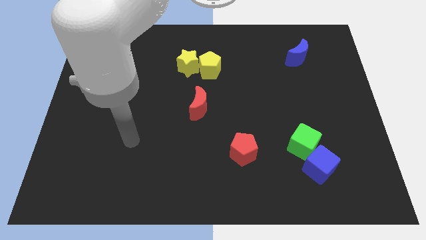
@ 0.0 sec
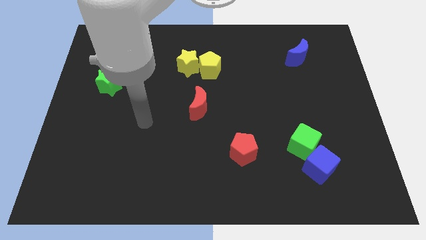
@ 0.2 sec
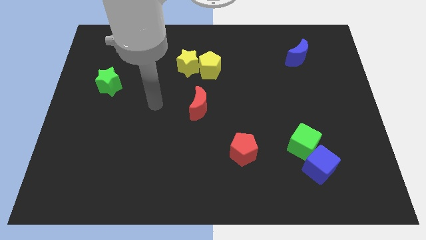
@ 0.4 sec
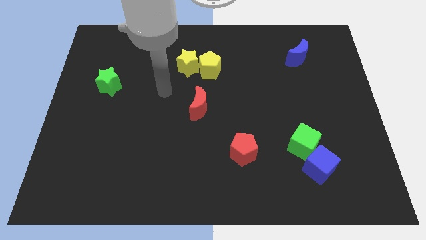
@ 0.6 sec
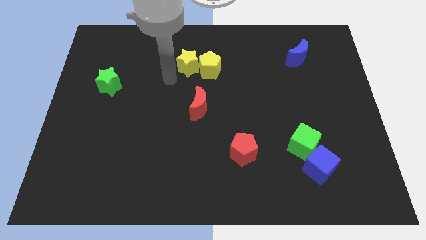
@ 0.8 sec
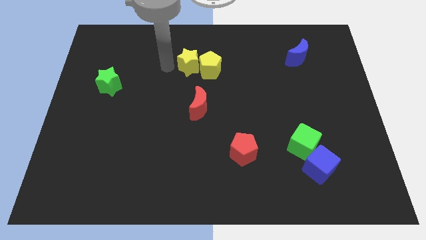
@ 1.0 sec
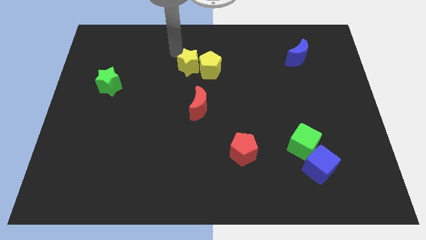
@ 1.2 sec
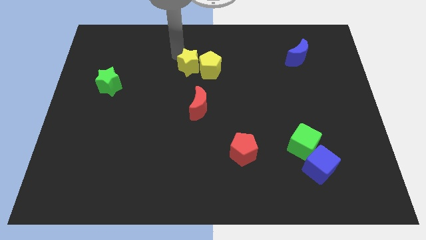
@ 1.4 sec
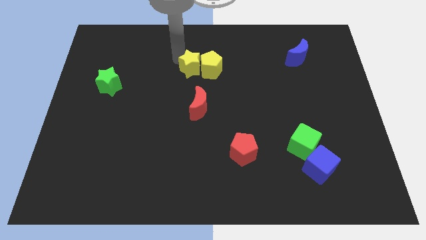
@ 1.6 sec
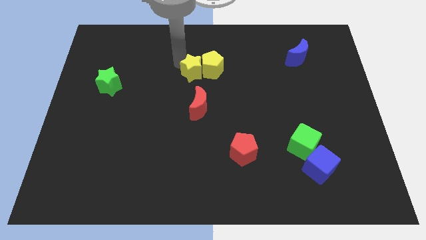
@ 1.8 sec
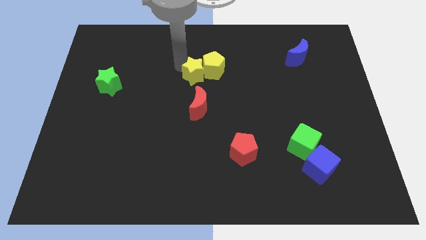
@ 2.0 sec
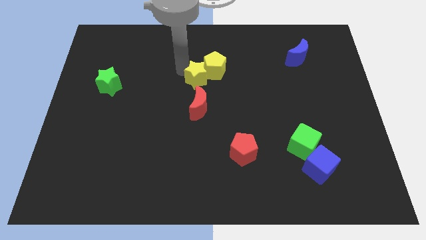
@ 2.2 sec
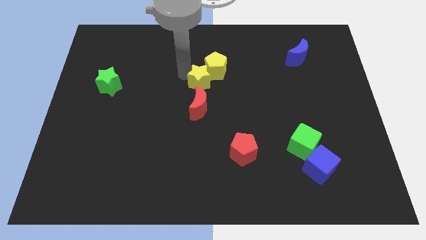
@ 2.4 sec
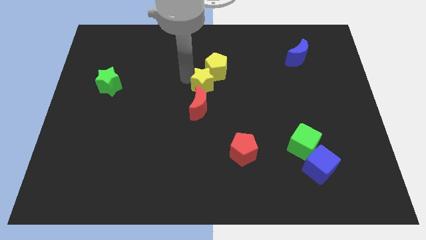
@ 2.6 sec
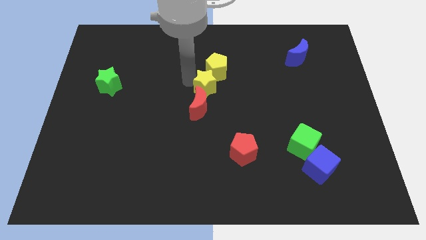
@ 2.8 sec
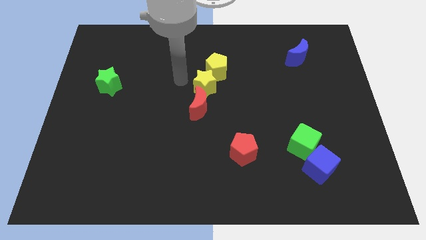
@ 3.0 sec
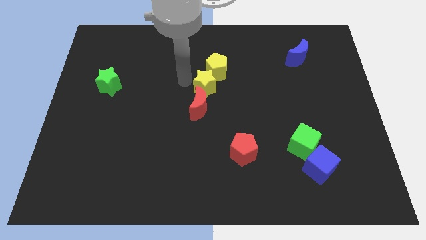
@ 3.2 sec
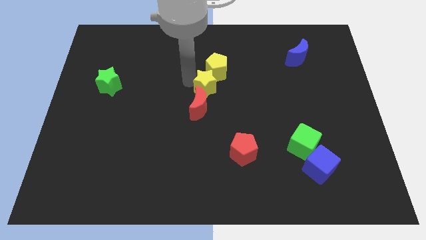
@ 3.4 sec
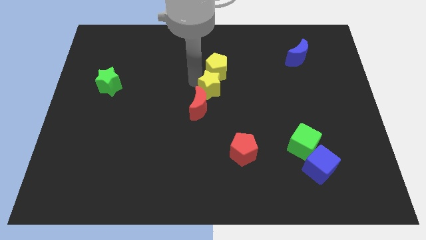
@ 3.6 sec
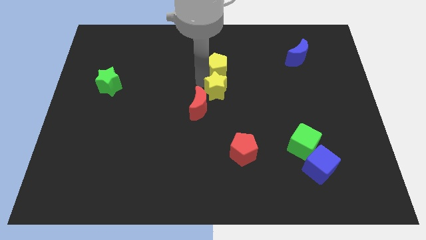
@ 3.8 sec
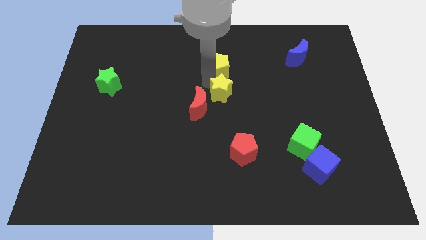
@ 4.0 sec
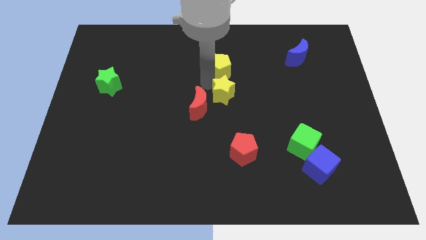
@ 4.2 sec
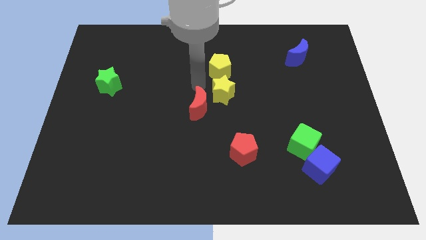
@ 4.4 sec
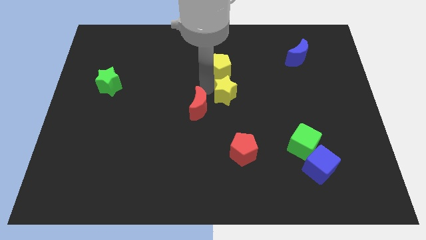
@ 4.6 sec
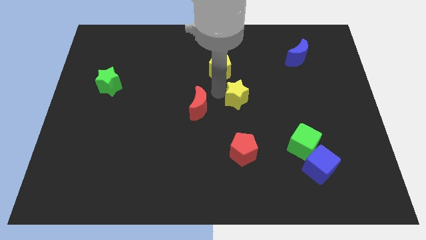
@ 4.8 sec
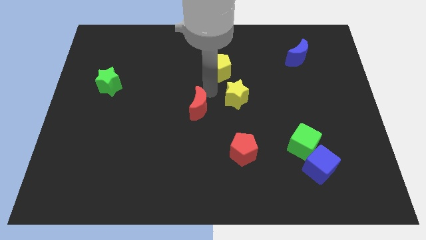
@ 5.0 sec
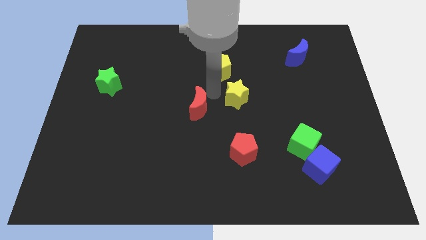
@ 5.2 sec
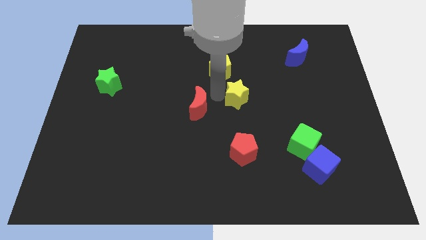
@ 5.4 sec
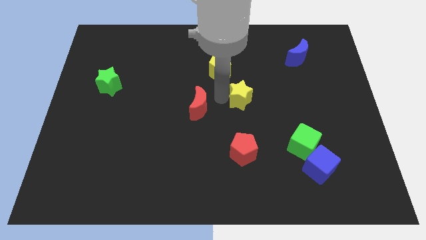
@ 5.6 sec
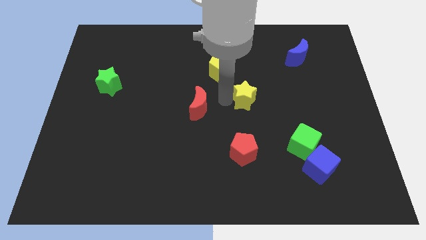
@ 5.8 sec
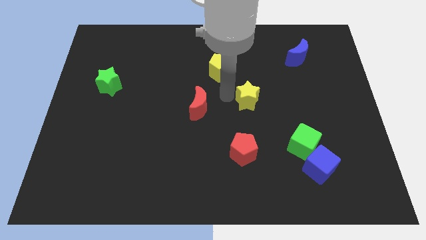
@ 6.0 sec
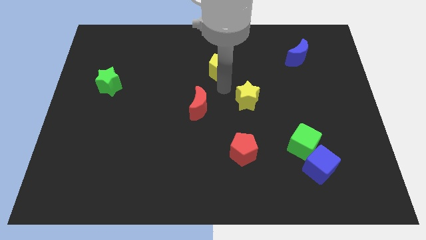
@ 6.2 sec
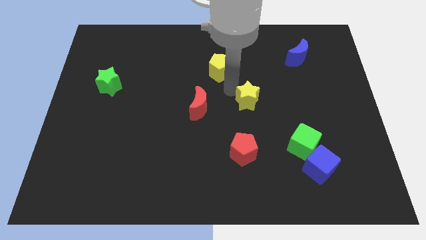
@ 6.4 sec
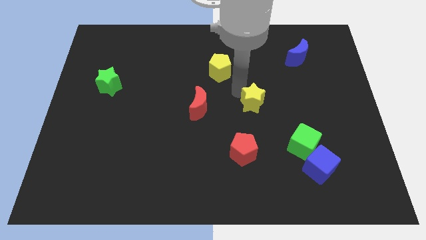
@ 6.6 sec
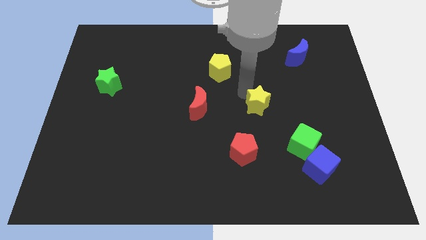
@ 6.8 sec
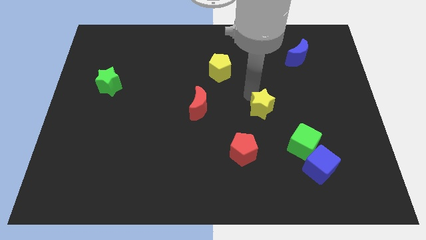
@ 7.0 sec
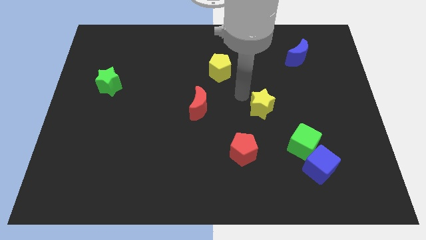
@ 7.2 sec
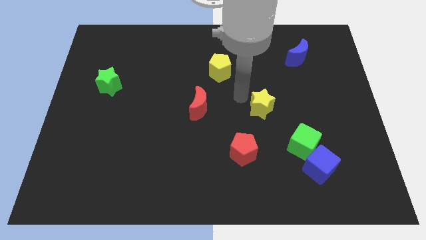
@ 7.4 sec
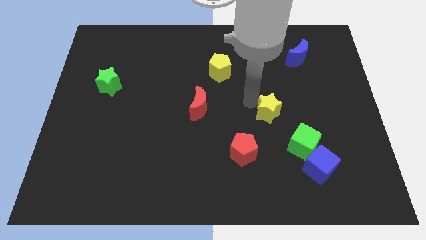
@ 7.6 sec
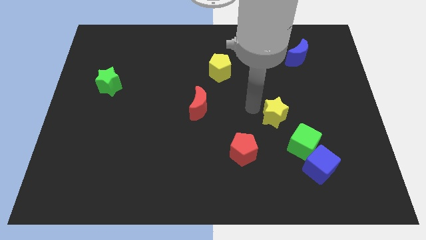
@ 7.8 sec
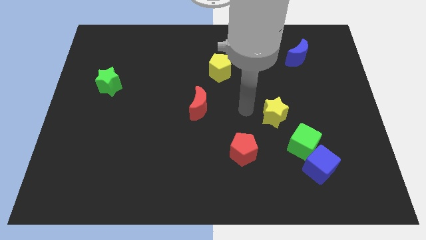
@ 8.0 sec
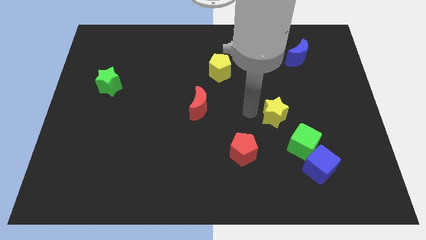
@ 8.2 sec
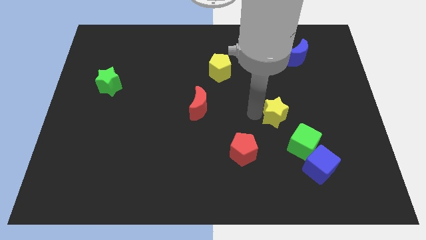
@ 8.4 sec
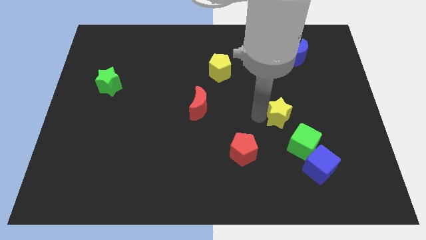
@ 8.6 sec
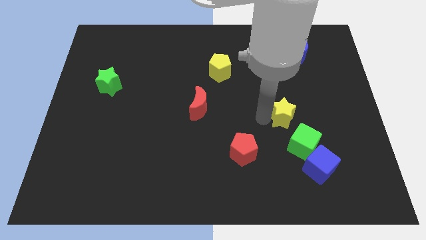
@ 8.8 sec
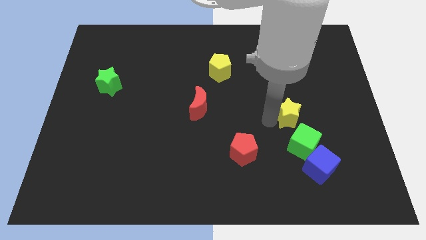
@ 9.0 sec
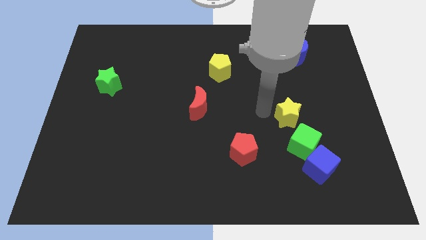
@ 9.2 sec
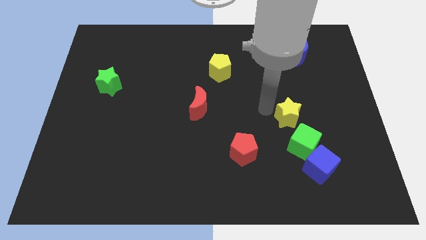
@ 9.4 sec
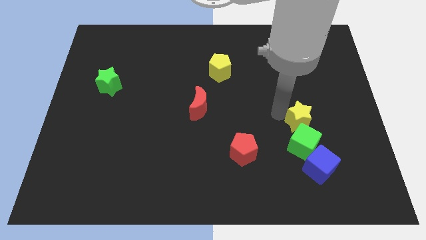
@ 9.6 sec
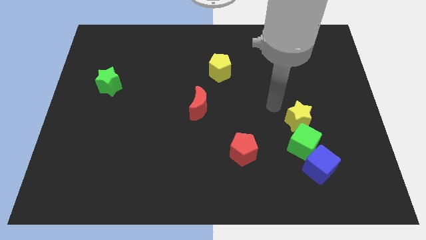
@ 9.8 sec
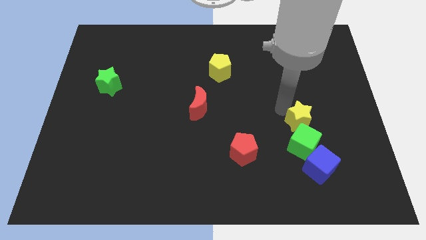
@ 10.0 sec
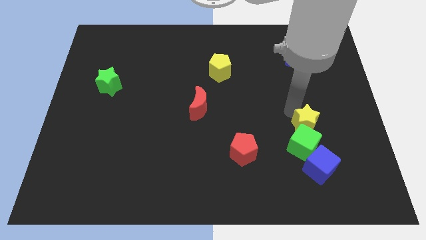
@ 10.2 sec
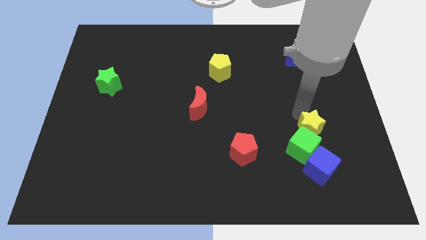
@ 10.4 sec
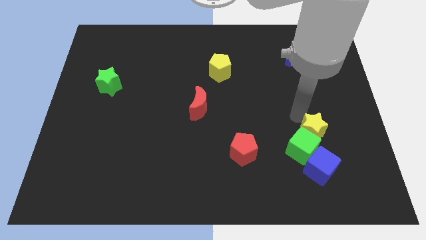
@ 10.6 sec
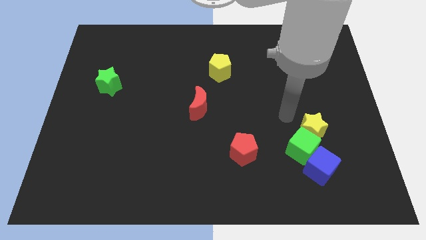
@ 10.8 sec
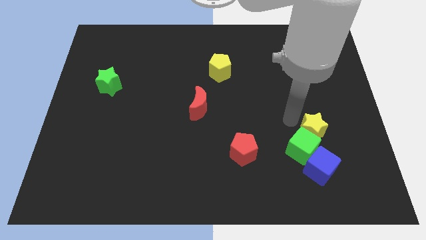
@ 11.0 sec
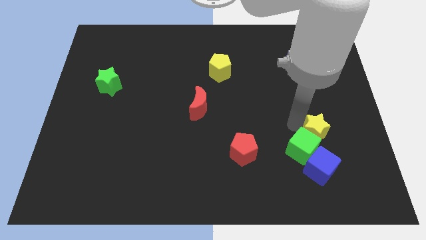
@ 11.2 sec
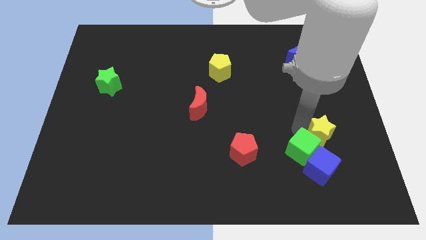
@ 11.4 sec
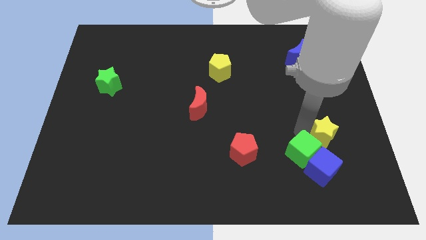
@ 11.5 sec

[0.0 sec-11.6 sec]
push the yellow star diagonally up and to the right of the blue cube

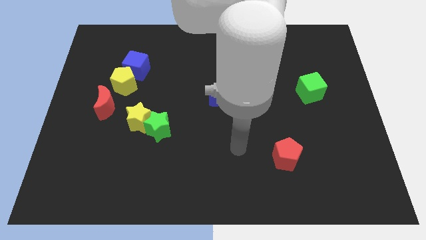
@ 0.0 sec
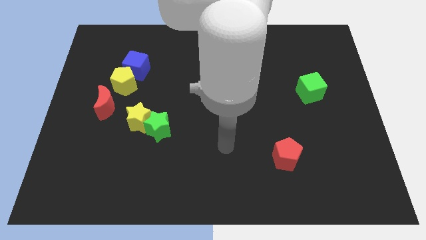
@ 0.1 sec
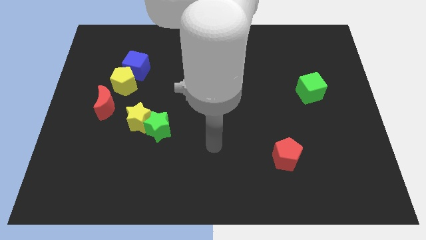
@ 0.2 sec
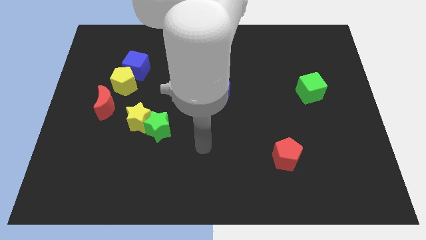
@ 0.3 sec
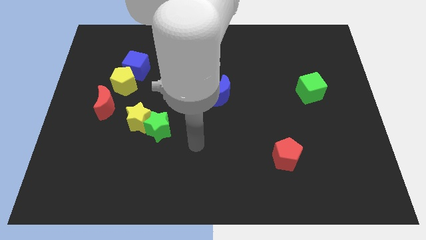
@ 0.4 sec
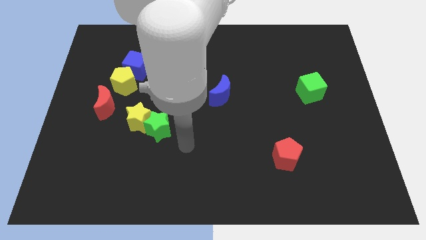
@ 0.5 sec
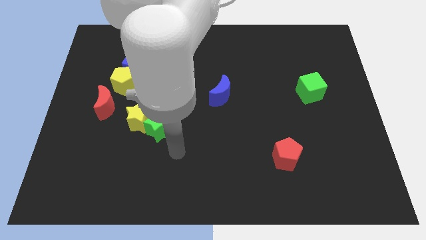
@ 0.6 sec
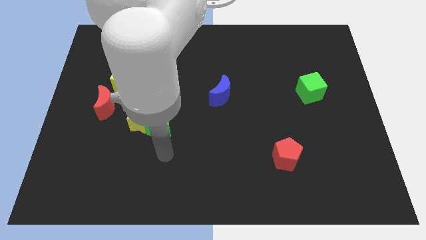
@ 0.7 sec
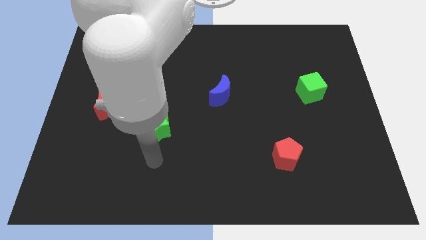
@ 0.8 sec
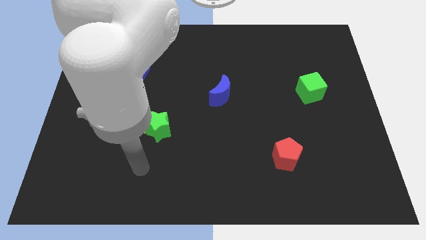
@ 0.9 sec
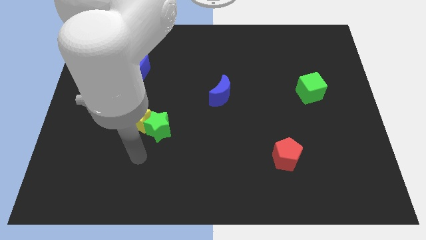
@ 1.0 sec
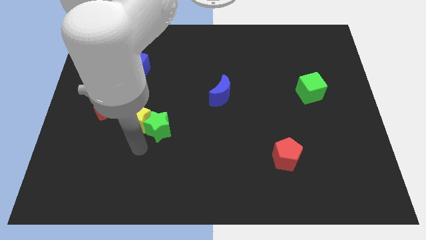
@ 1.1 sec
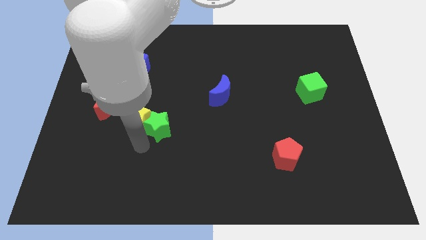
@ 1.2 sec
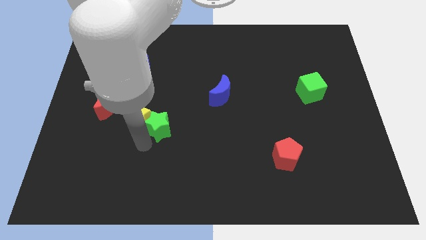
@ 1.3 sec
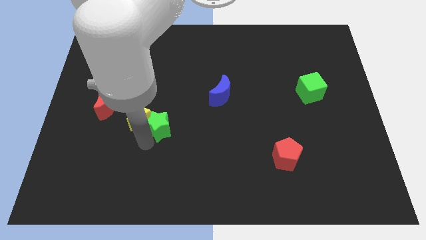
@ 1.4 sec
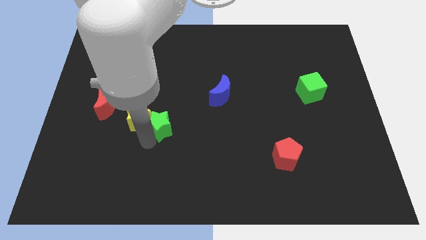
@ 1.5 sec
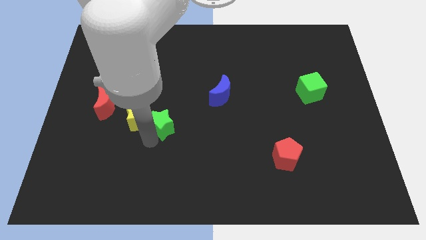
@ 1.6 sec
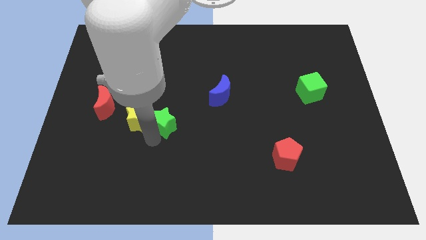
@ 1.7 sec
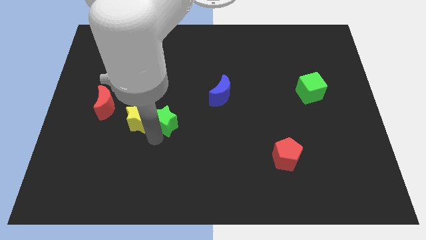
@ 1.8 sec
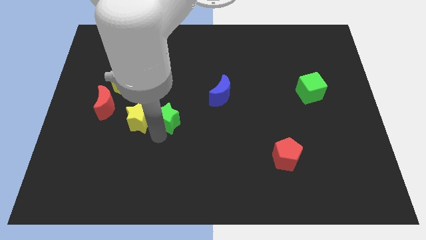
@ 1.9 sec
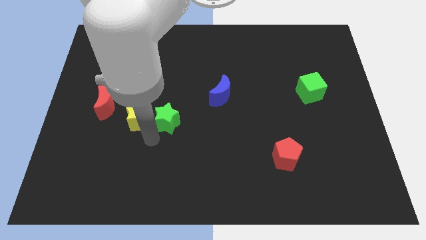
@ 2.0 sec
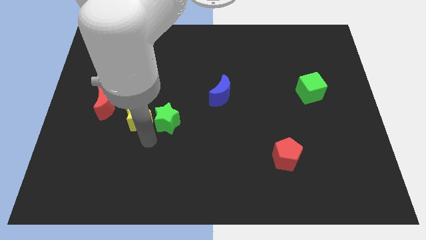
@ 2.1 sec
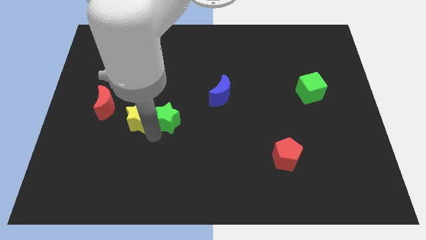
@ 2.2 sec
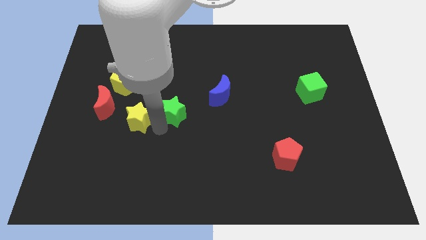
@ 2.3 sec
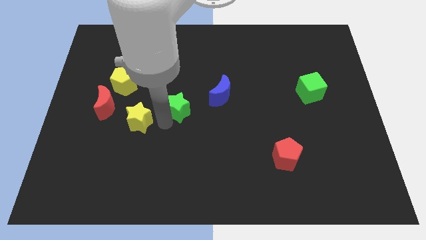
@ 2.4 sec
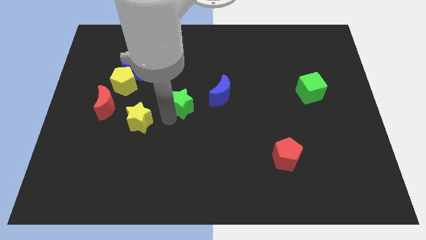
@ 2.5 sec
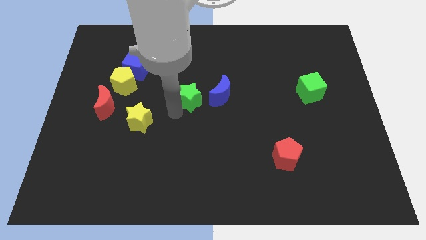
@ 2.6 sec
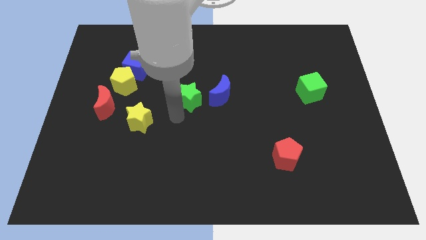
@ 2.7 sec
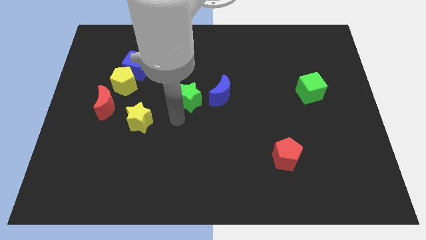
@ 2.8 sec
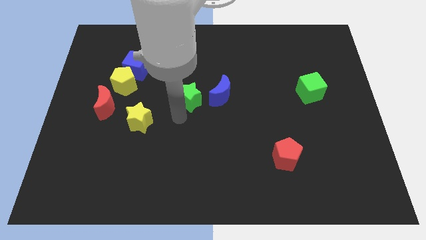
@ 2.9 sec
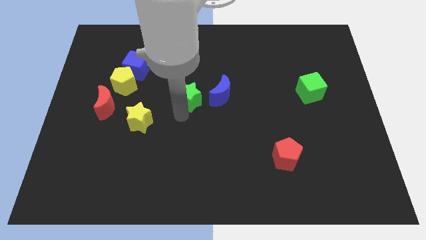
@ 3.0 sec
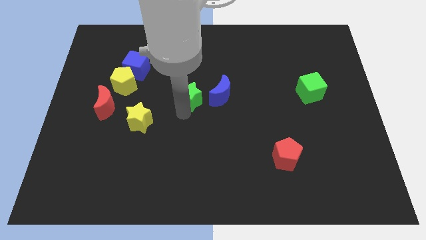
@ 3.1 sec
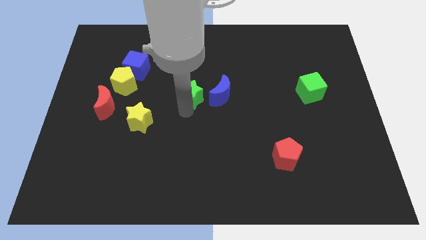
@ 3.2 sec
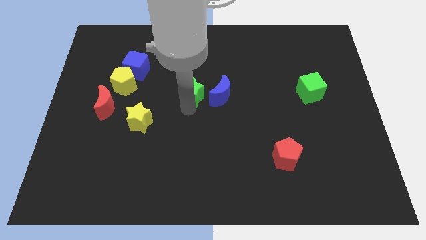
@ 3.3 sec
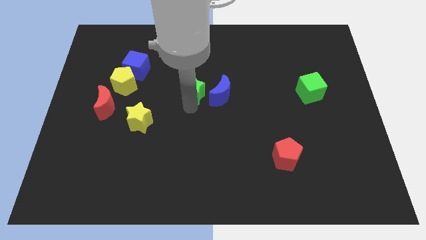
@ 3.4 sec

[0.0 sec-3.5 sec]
push the green star to the top left of the blue moon
